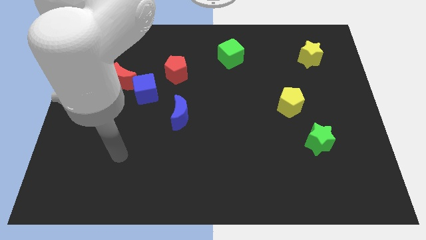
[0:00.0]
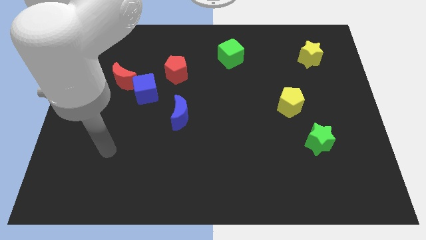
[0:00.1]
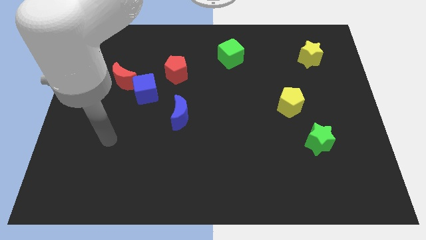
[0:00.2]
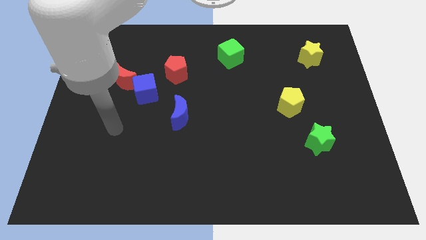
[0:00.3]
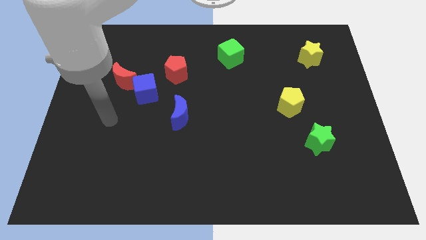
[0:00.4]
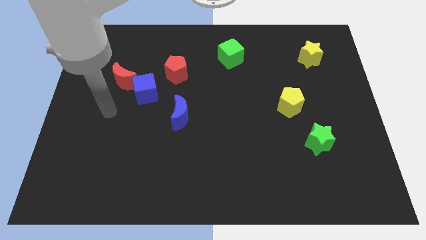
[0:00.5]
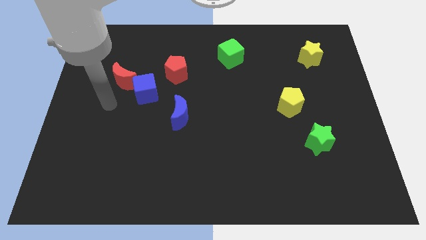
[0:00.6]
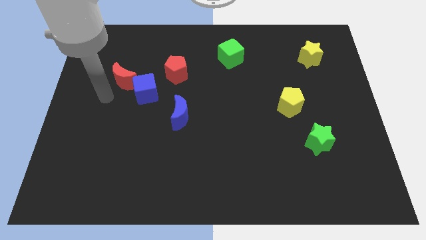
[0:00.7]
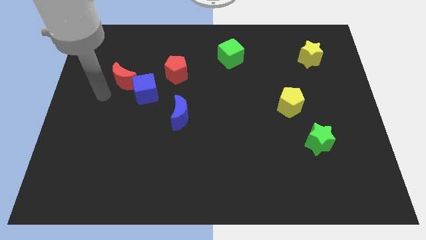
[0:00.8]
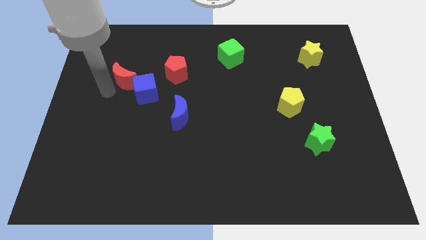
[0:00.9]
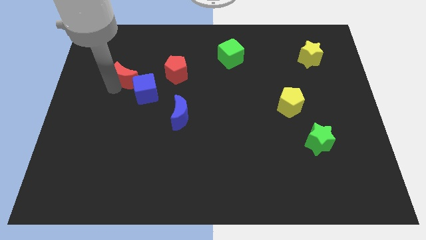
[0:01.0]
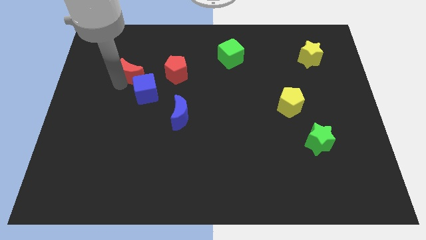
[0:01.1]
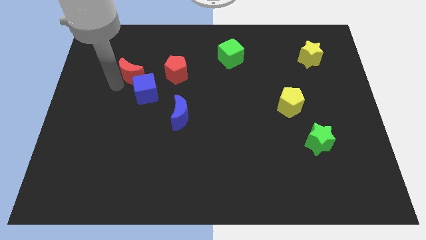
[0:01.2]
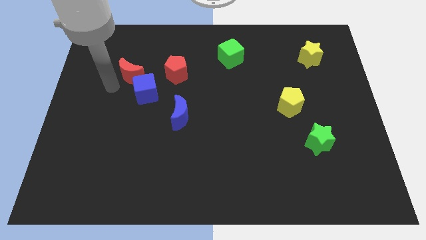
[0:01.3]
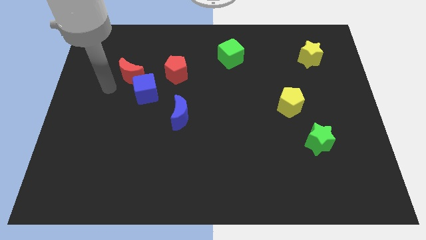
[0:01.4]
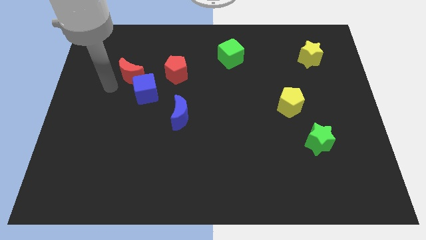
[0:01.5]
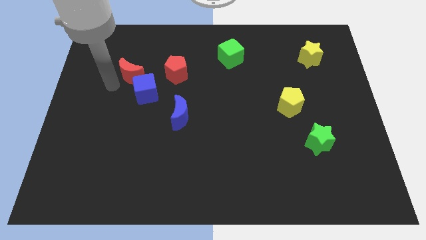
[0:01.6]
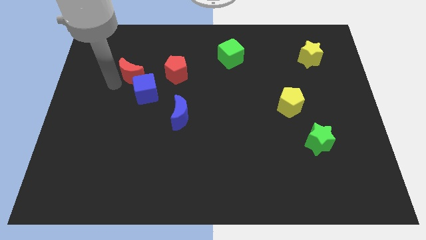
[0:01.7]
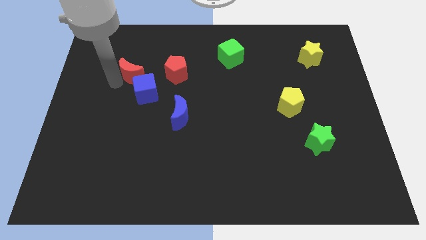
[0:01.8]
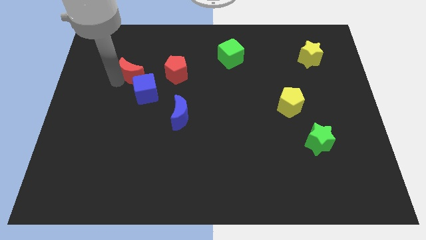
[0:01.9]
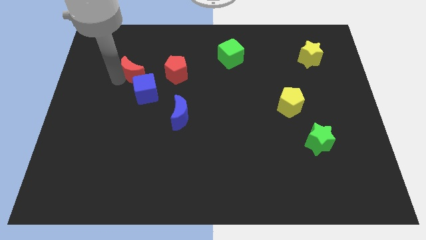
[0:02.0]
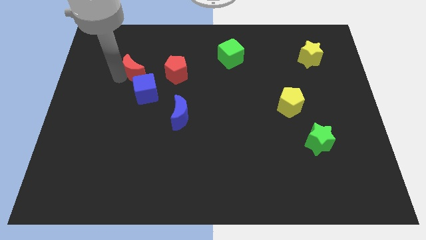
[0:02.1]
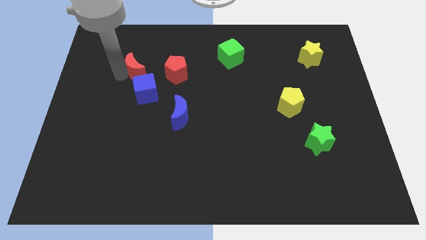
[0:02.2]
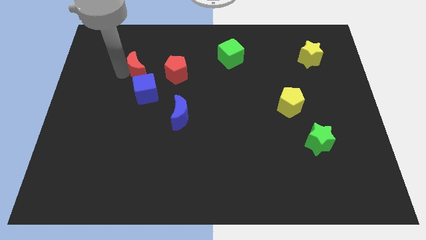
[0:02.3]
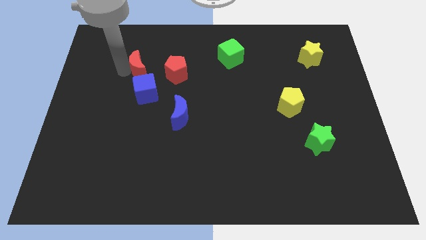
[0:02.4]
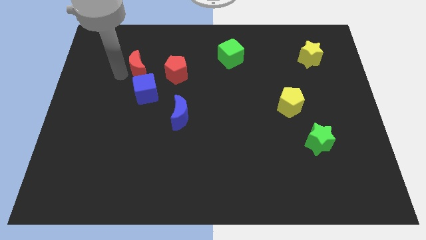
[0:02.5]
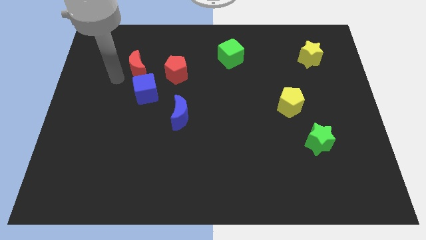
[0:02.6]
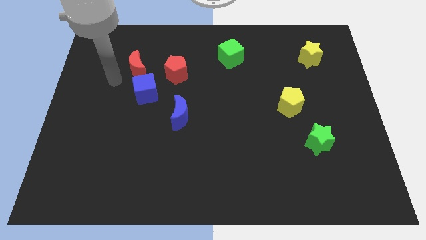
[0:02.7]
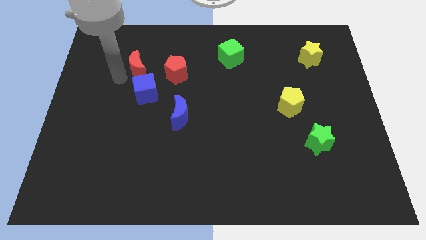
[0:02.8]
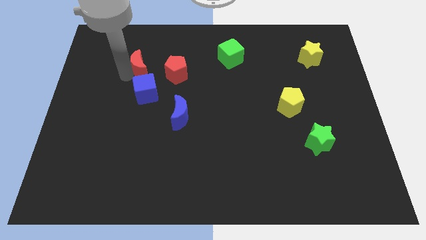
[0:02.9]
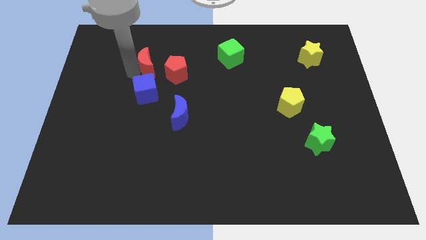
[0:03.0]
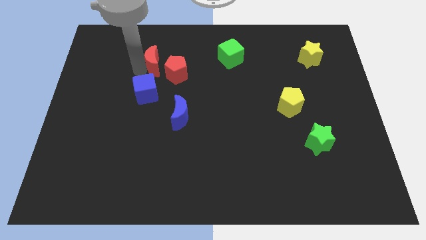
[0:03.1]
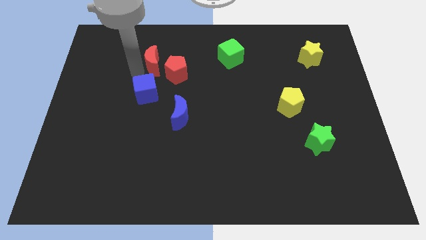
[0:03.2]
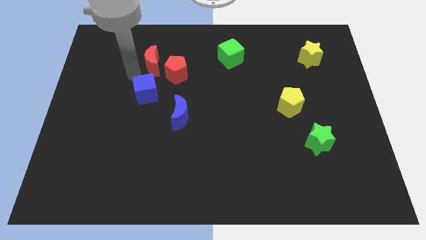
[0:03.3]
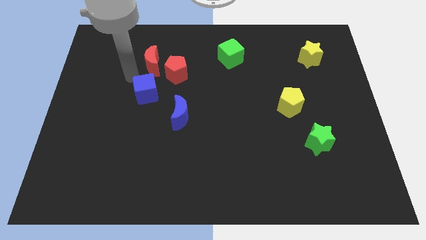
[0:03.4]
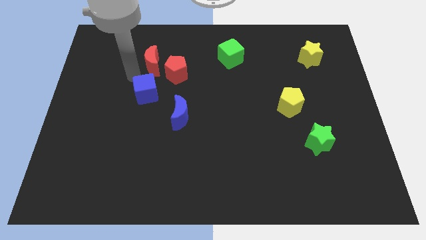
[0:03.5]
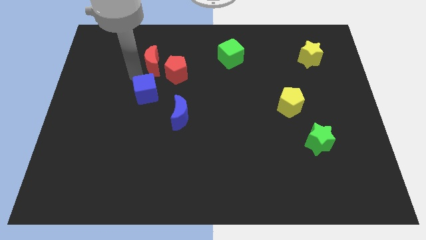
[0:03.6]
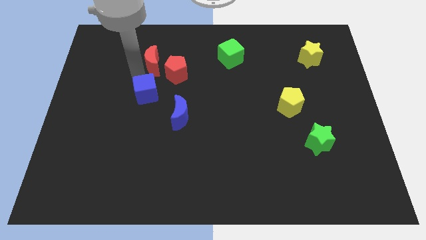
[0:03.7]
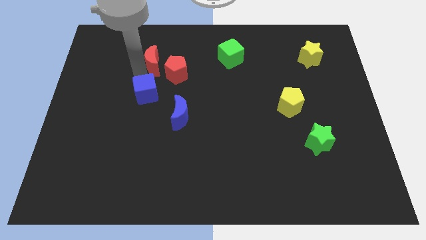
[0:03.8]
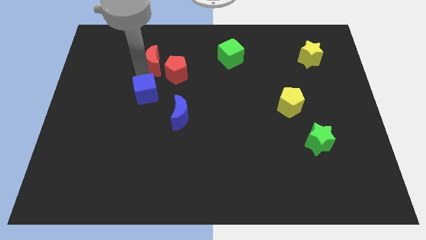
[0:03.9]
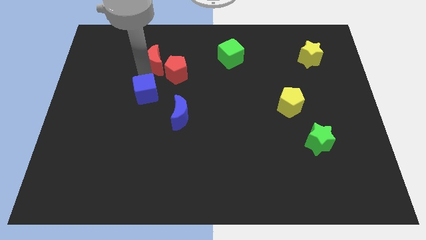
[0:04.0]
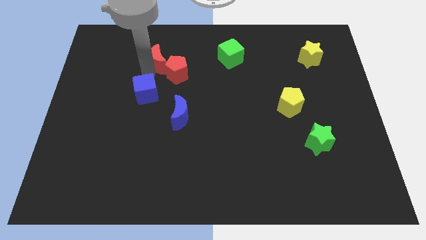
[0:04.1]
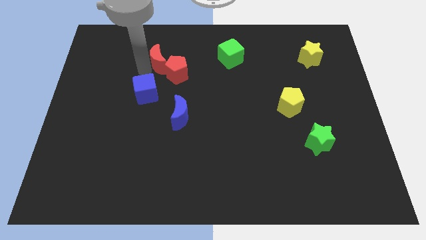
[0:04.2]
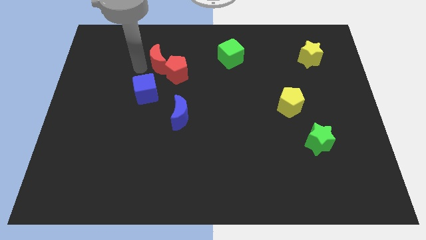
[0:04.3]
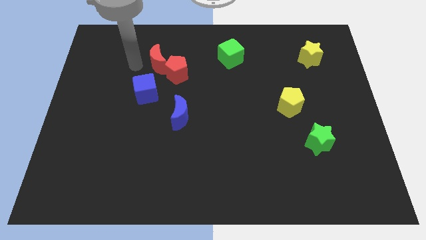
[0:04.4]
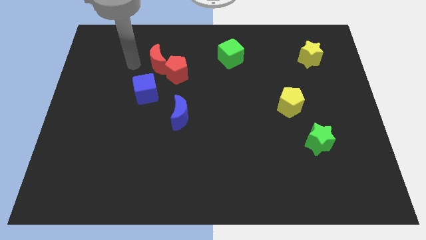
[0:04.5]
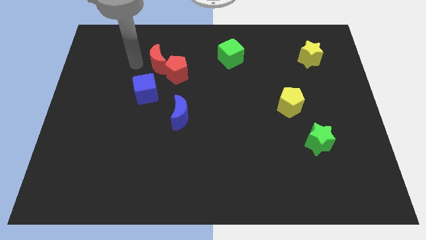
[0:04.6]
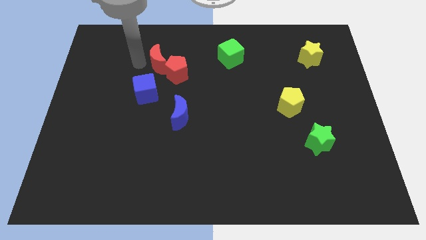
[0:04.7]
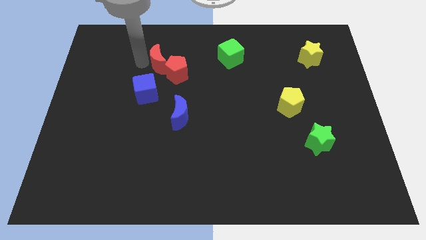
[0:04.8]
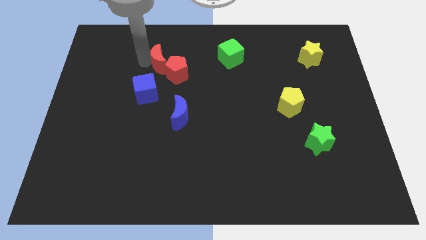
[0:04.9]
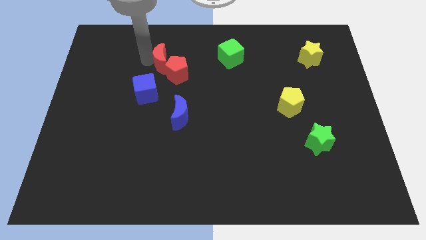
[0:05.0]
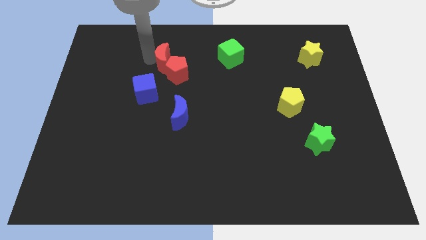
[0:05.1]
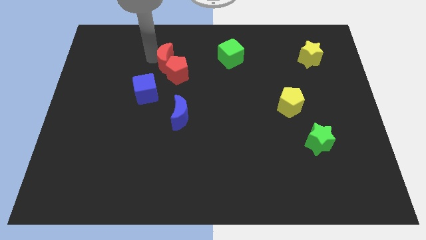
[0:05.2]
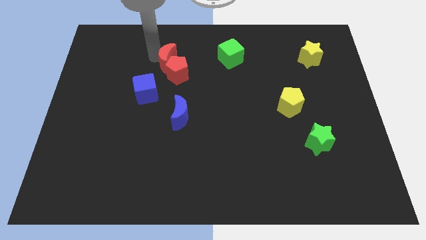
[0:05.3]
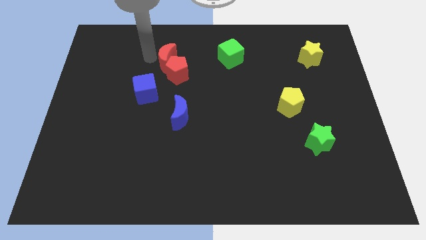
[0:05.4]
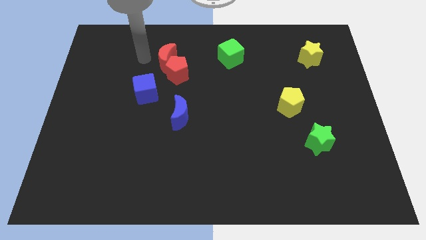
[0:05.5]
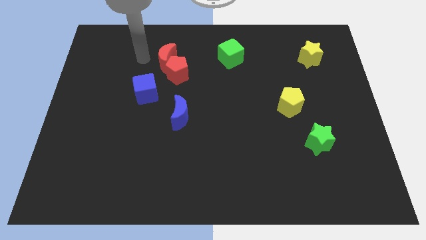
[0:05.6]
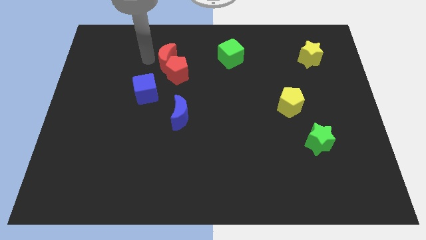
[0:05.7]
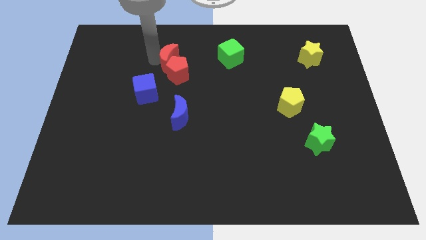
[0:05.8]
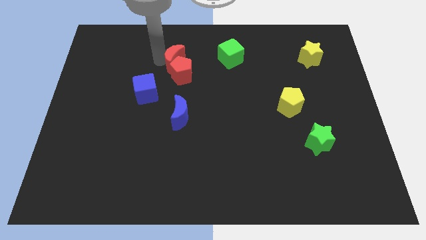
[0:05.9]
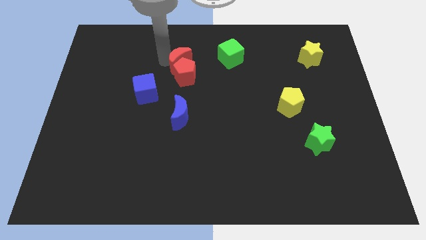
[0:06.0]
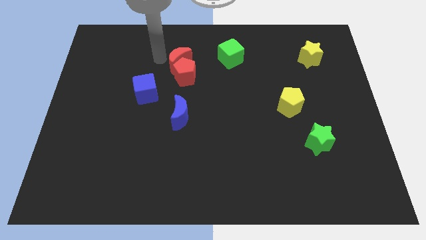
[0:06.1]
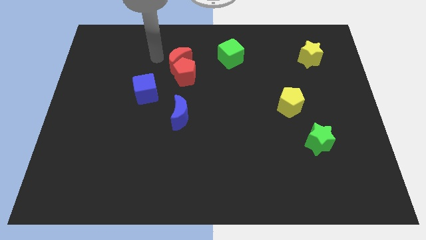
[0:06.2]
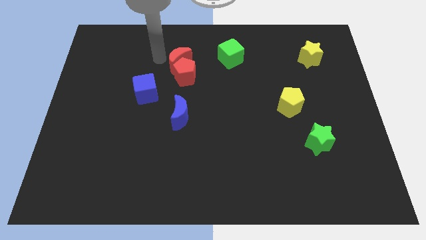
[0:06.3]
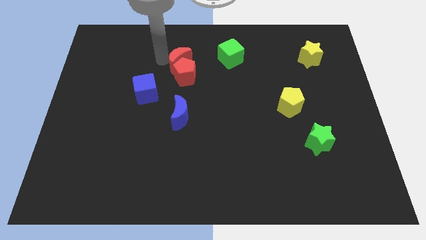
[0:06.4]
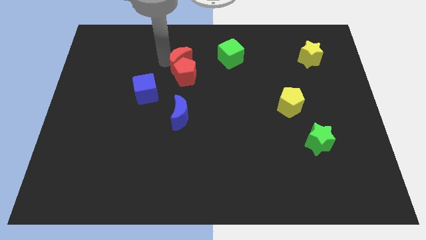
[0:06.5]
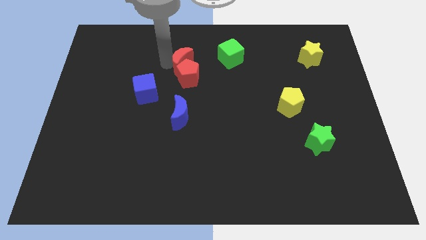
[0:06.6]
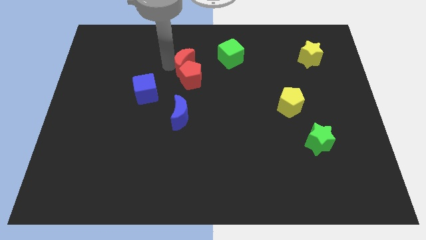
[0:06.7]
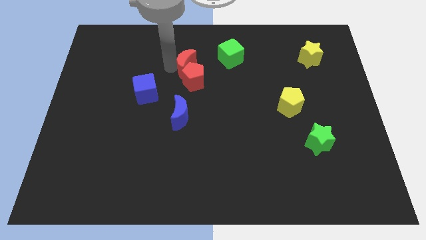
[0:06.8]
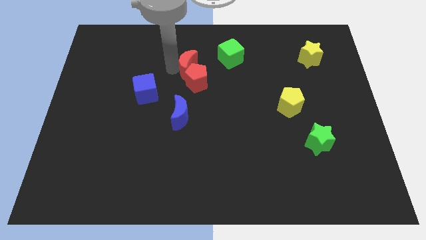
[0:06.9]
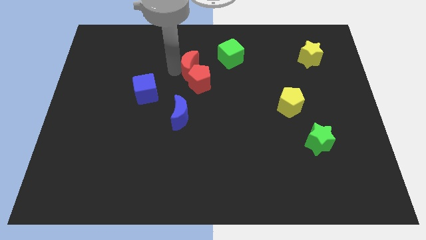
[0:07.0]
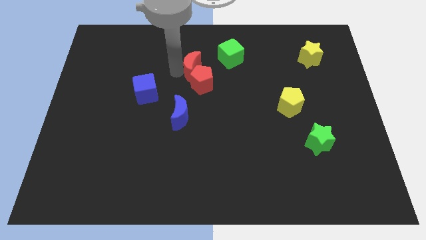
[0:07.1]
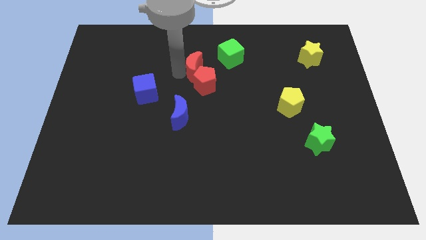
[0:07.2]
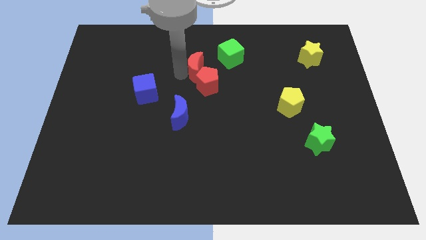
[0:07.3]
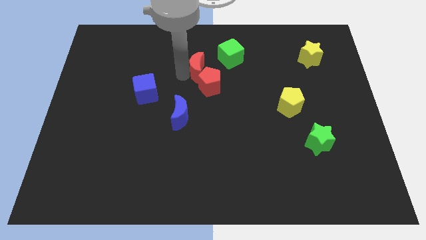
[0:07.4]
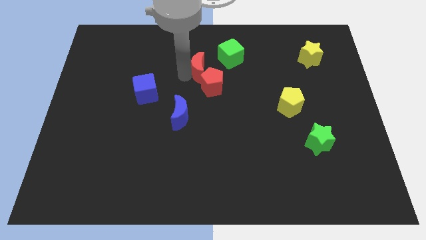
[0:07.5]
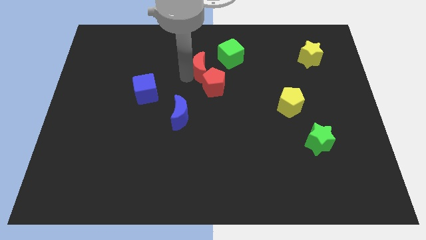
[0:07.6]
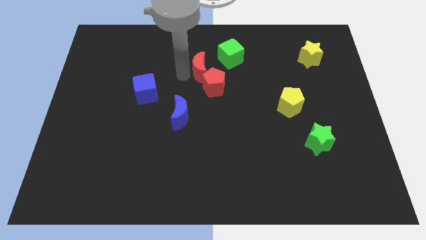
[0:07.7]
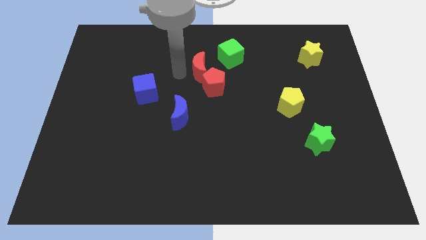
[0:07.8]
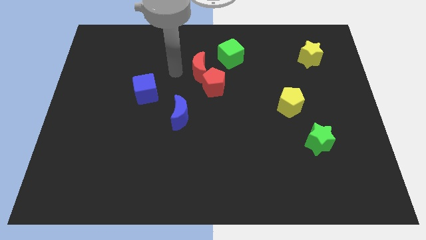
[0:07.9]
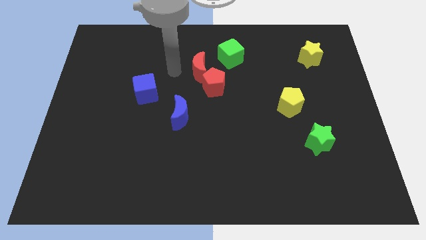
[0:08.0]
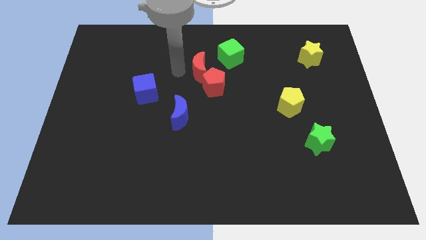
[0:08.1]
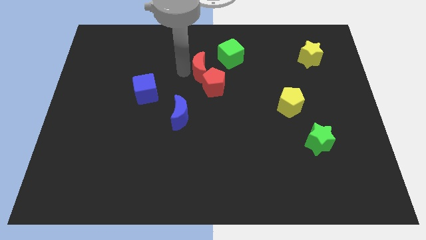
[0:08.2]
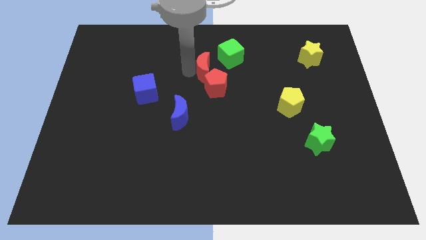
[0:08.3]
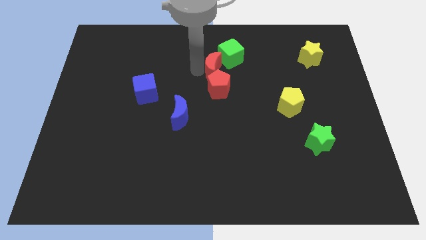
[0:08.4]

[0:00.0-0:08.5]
move the red moon to the right
